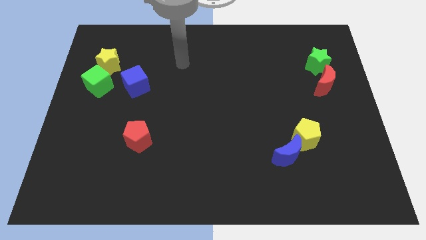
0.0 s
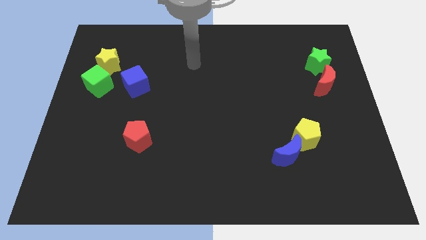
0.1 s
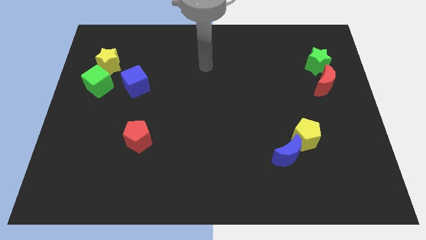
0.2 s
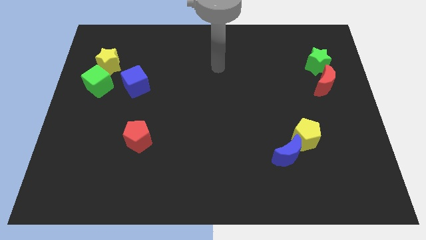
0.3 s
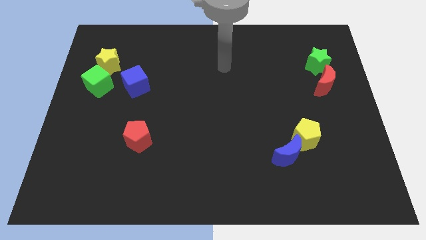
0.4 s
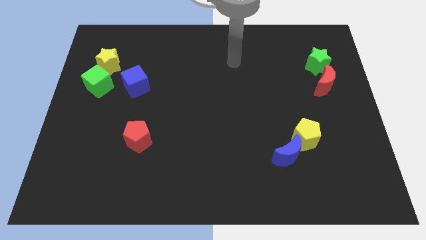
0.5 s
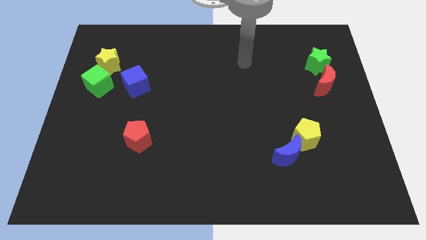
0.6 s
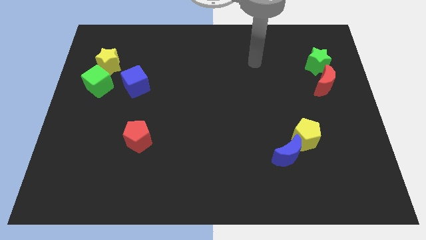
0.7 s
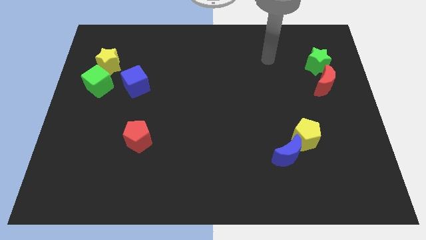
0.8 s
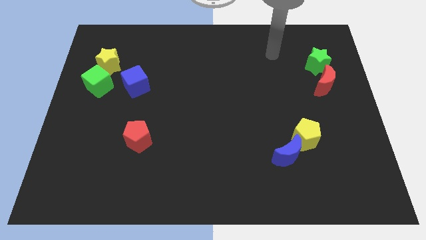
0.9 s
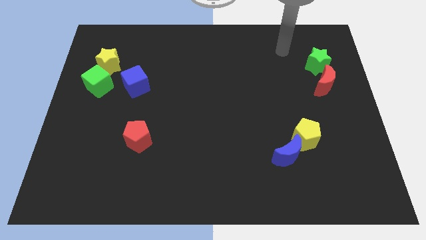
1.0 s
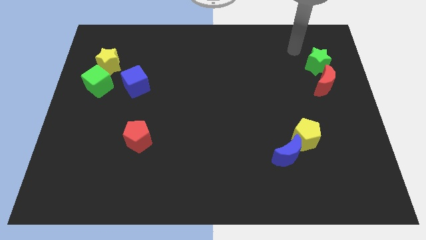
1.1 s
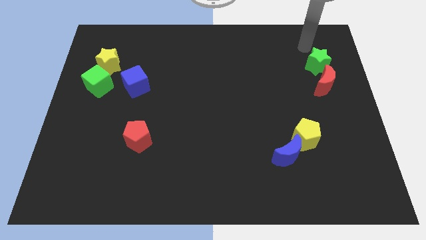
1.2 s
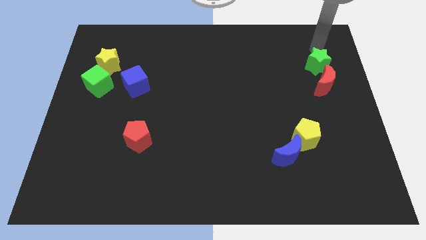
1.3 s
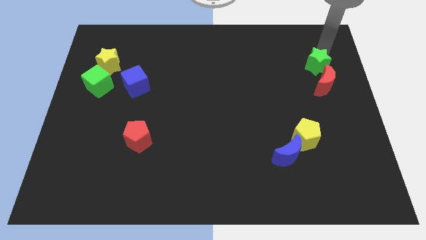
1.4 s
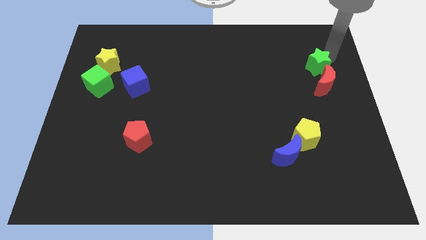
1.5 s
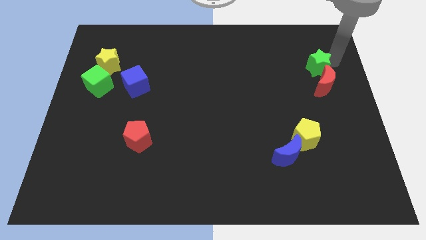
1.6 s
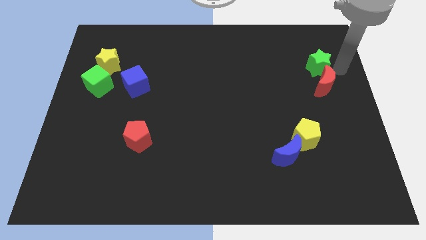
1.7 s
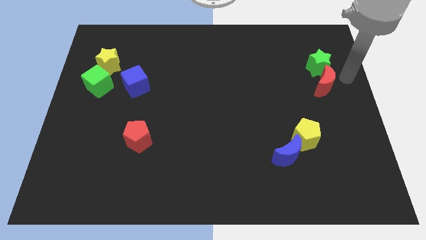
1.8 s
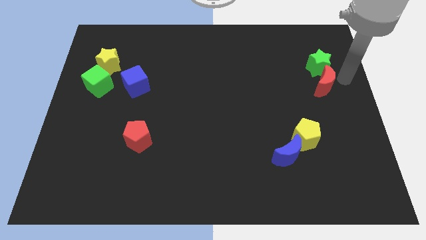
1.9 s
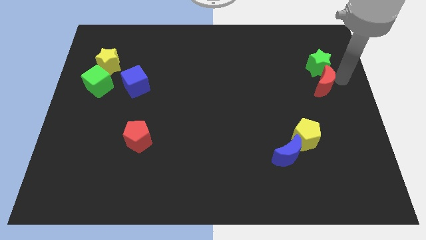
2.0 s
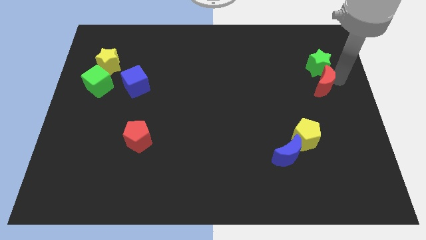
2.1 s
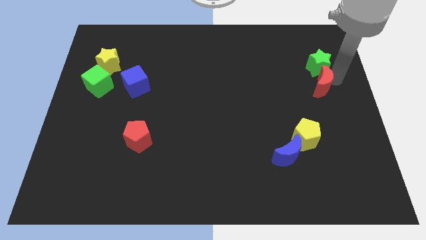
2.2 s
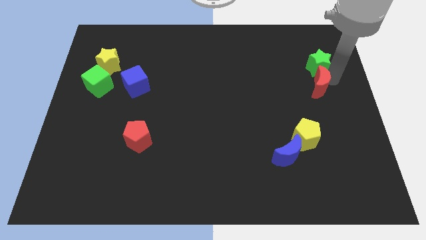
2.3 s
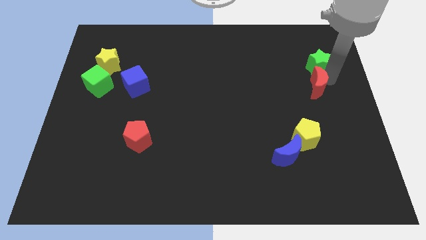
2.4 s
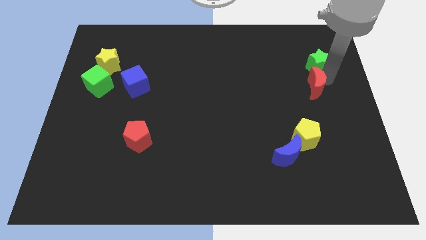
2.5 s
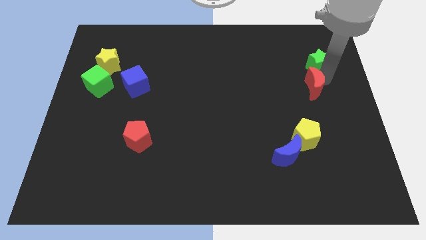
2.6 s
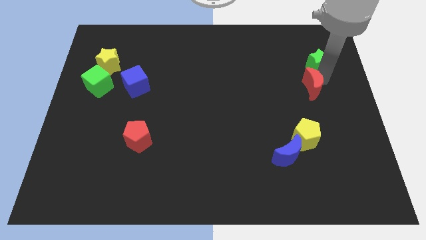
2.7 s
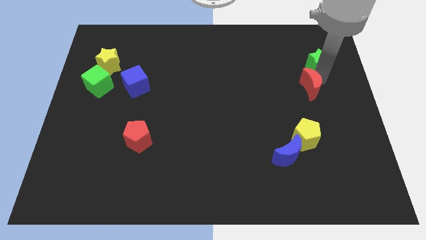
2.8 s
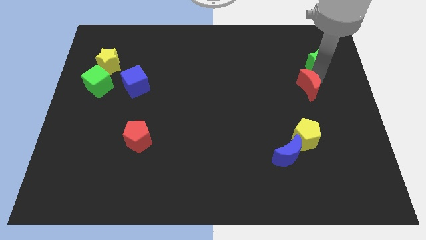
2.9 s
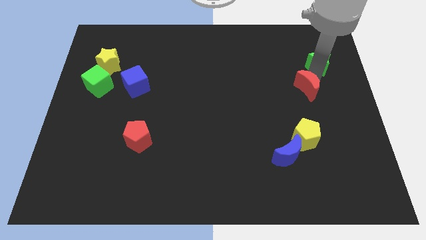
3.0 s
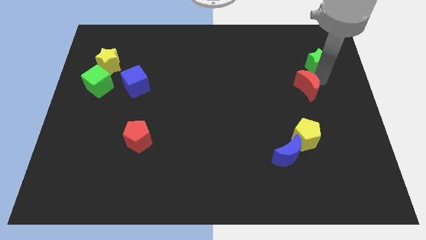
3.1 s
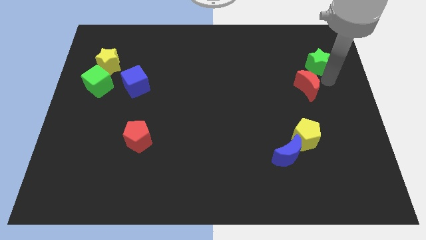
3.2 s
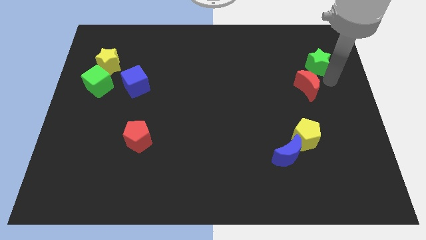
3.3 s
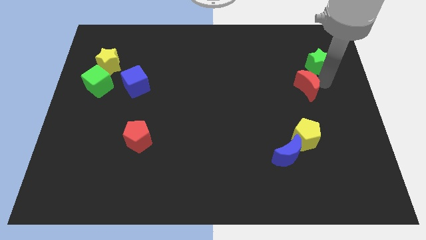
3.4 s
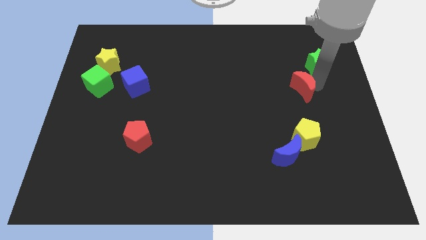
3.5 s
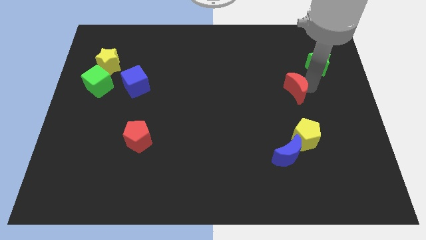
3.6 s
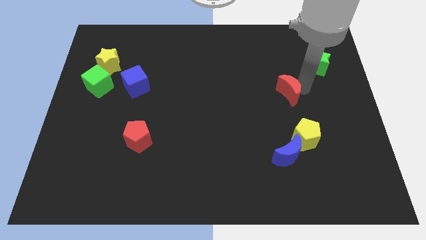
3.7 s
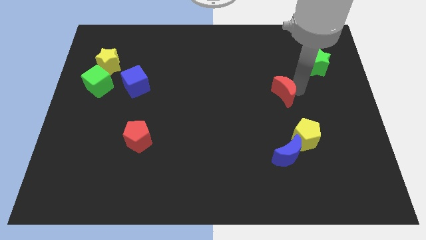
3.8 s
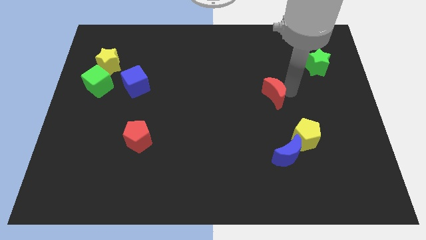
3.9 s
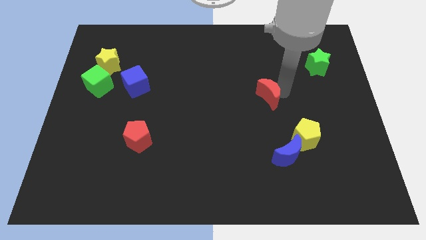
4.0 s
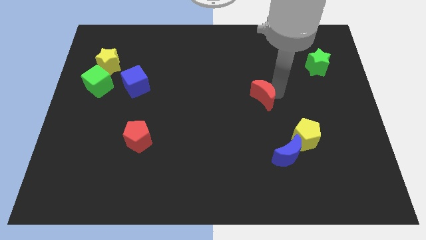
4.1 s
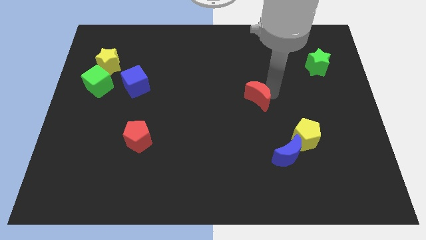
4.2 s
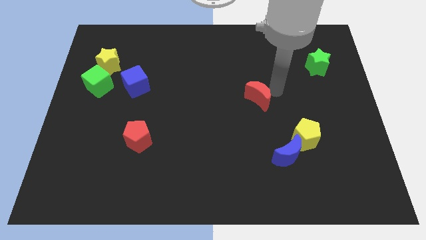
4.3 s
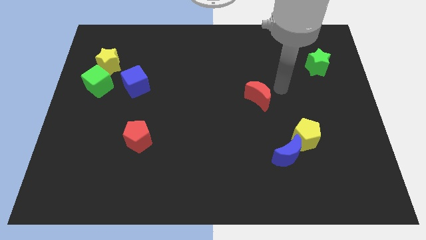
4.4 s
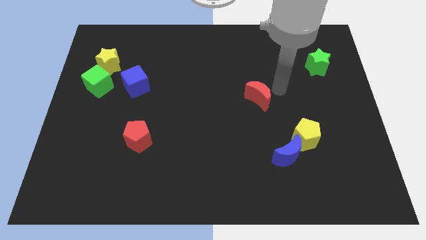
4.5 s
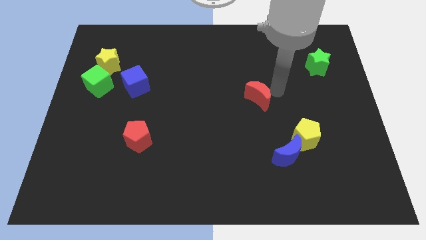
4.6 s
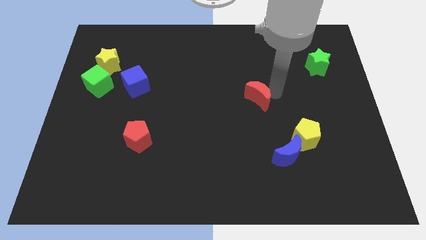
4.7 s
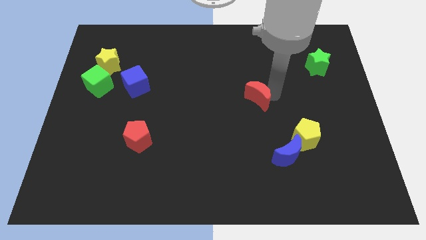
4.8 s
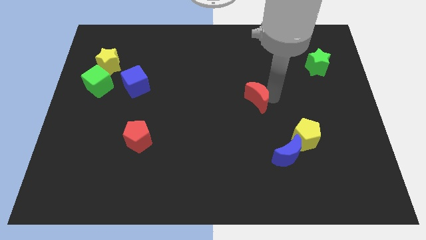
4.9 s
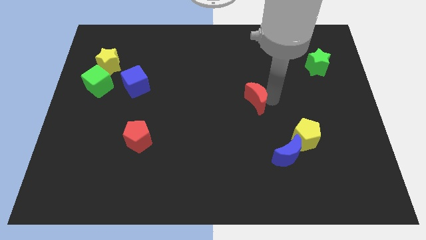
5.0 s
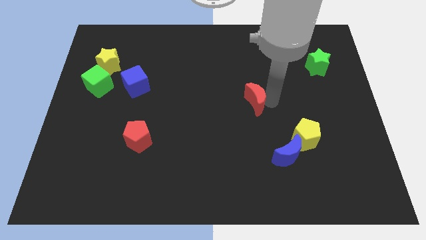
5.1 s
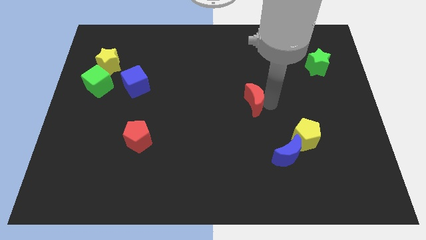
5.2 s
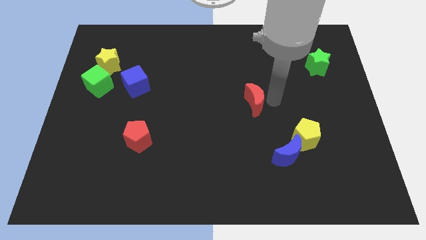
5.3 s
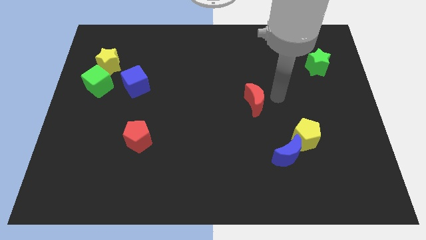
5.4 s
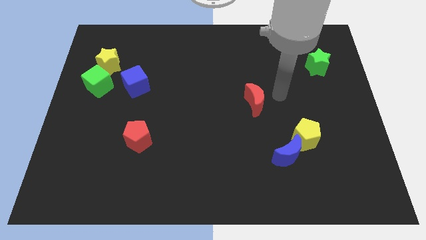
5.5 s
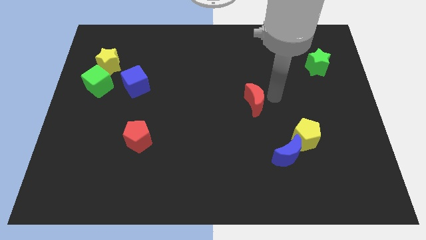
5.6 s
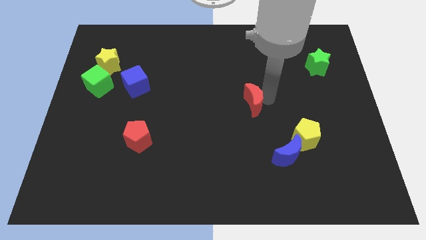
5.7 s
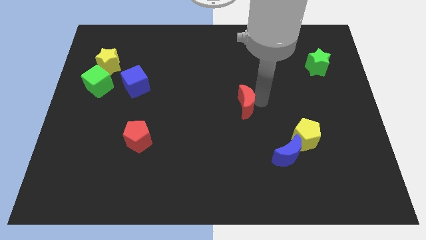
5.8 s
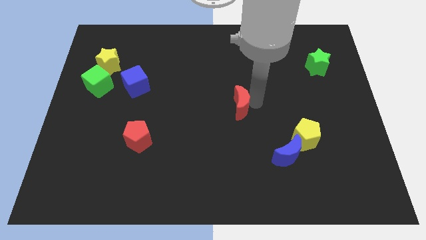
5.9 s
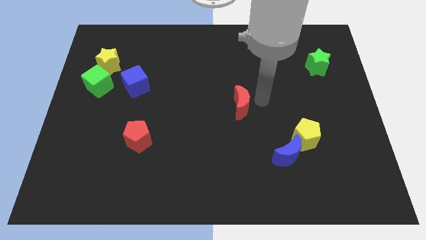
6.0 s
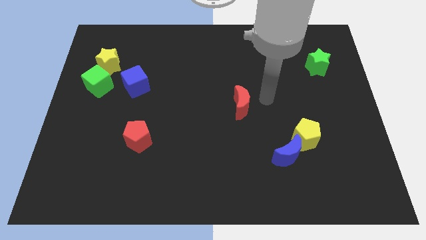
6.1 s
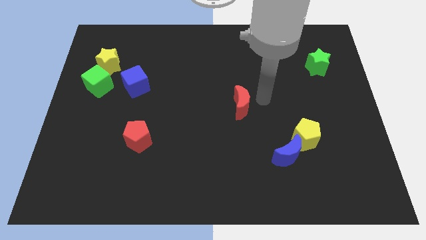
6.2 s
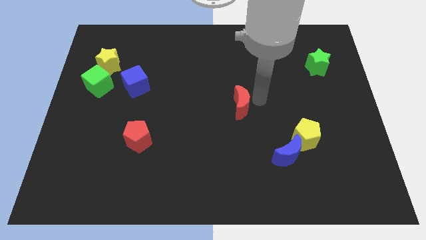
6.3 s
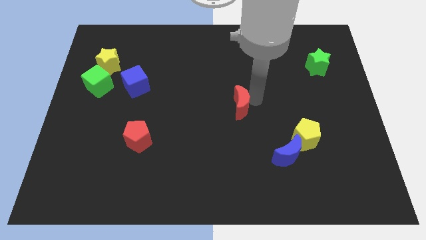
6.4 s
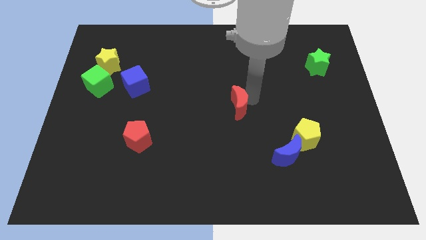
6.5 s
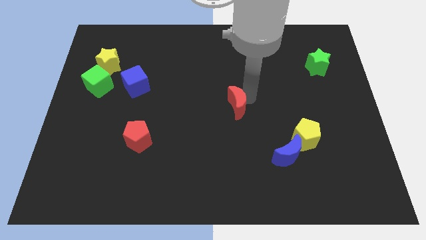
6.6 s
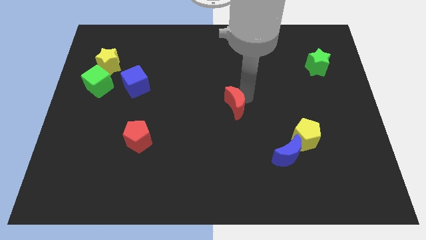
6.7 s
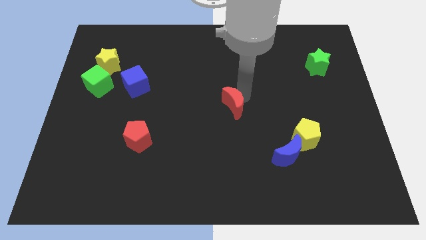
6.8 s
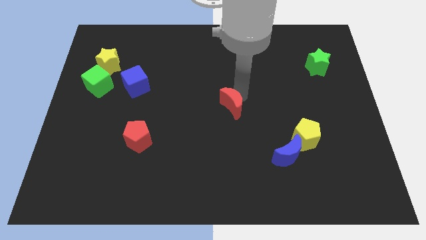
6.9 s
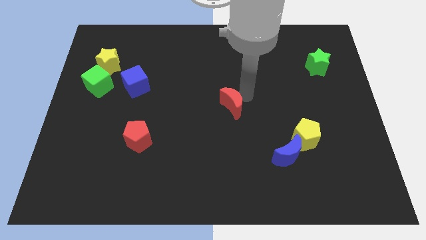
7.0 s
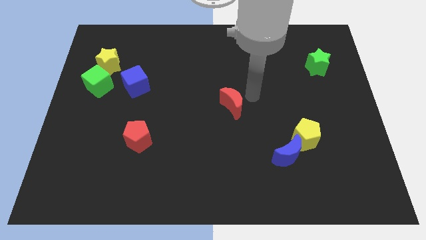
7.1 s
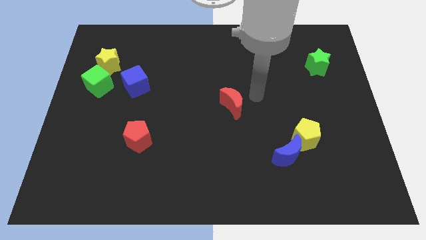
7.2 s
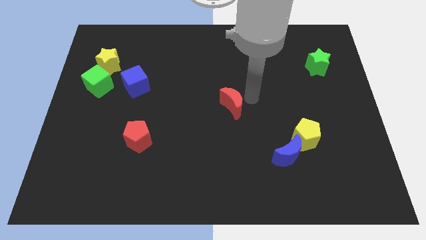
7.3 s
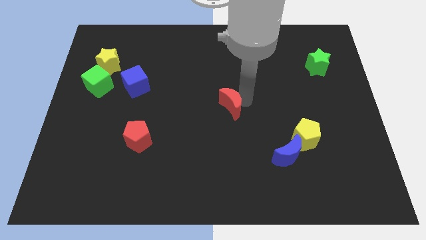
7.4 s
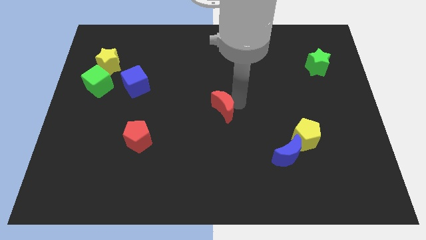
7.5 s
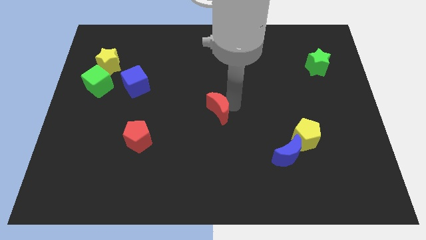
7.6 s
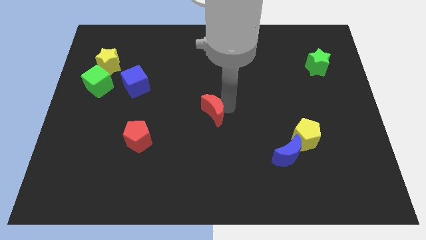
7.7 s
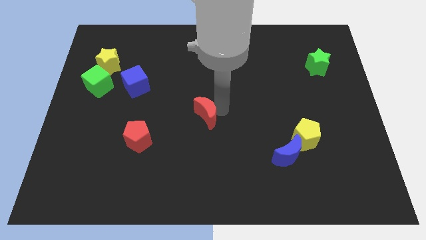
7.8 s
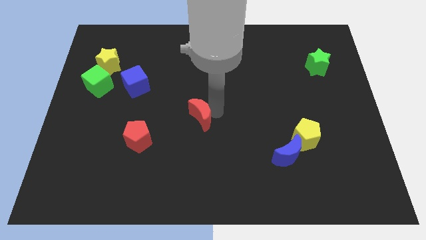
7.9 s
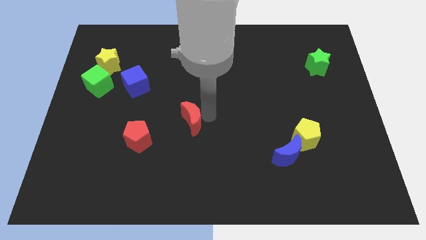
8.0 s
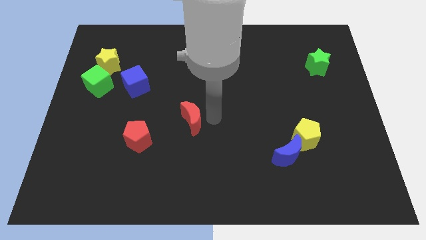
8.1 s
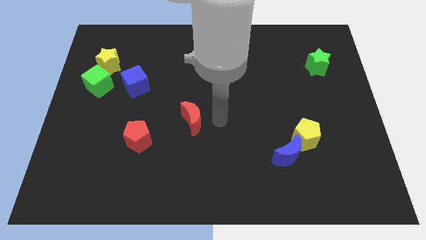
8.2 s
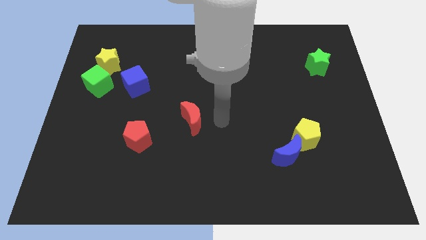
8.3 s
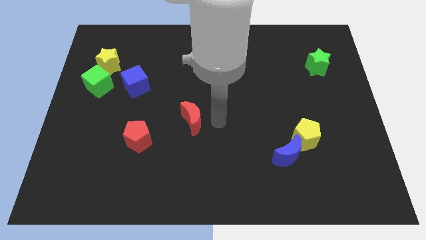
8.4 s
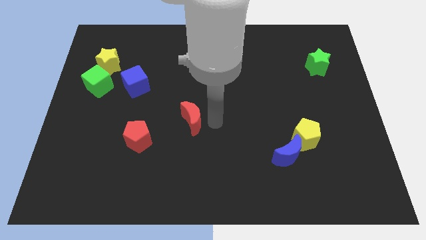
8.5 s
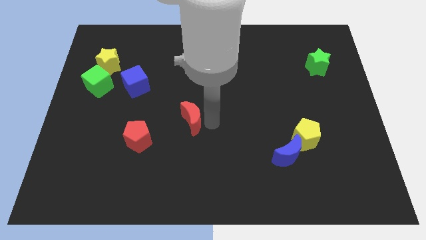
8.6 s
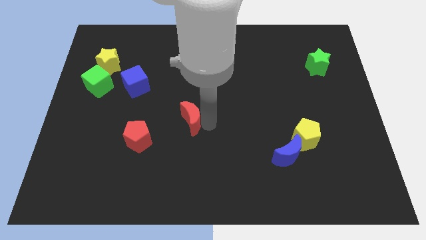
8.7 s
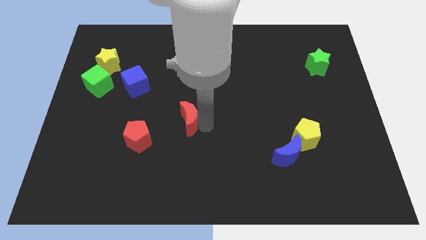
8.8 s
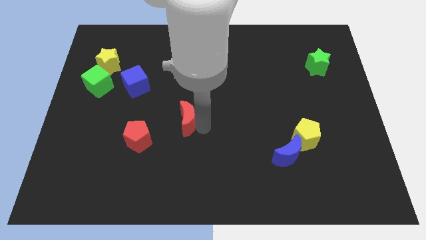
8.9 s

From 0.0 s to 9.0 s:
slide the red moon diagonally up and to the right of the red pentagon
